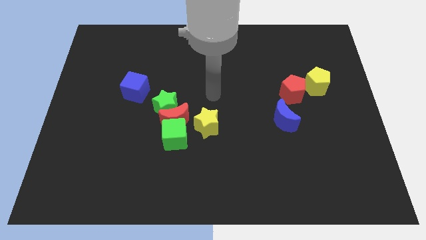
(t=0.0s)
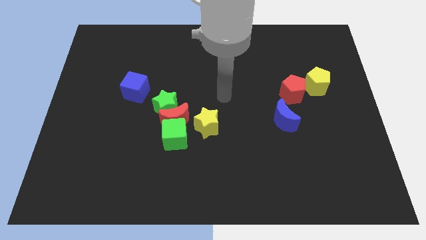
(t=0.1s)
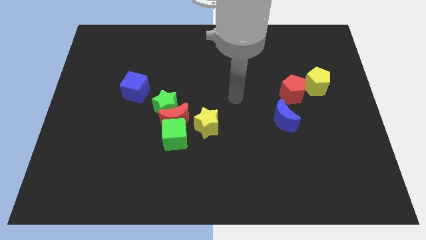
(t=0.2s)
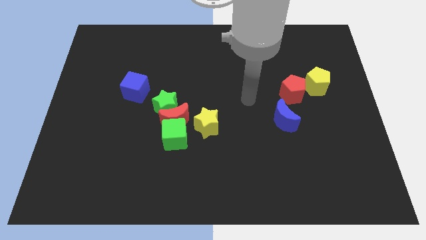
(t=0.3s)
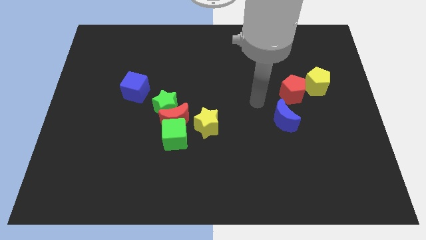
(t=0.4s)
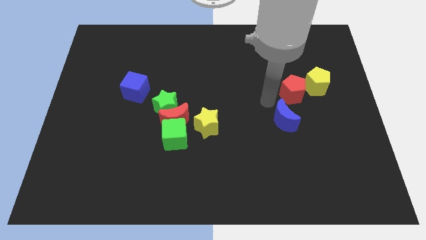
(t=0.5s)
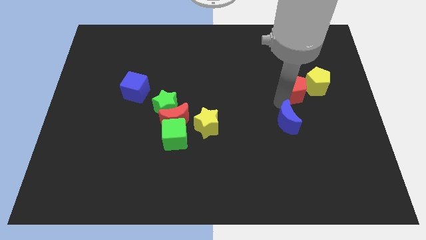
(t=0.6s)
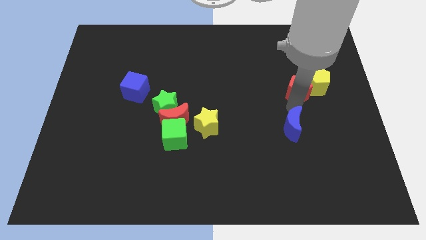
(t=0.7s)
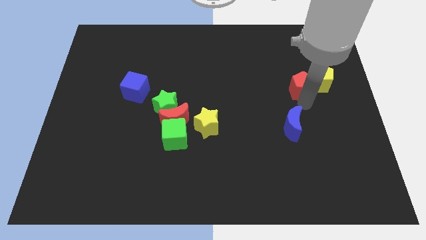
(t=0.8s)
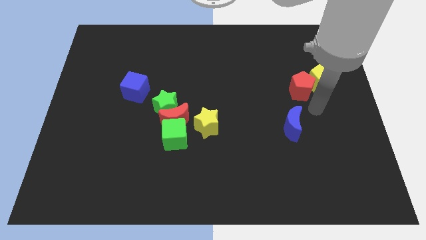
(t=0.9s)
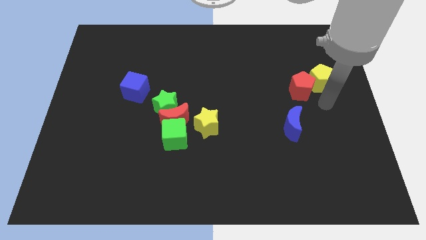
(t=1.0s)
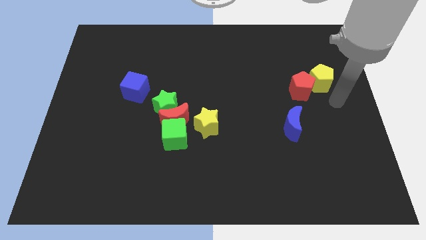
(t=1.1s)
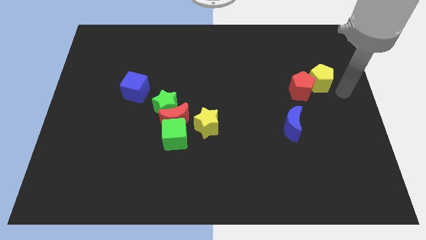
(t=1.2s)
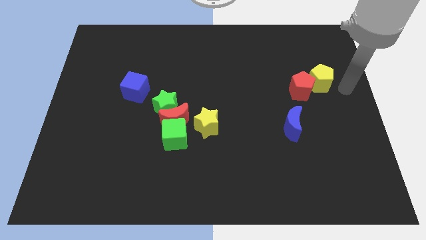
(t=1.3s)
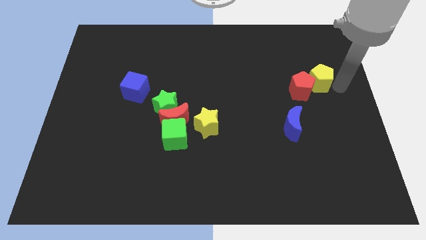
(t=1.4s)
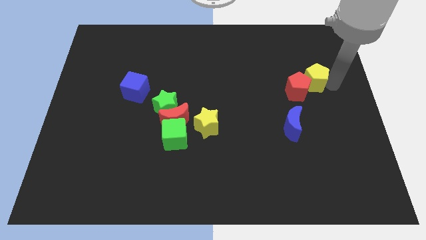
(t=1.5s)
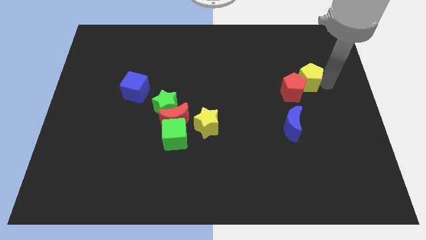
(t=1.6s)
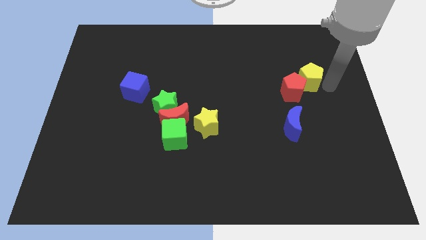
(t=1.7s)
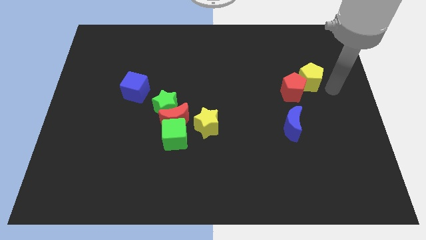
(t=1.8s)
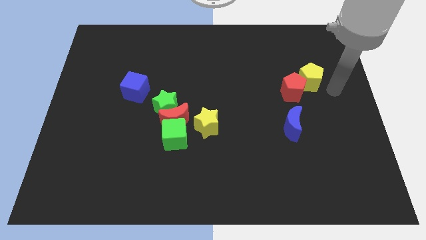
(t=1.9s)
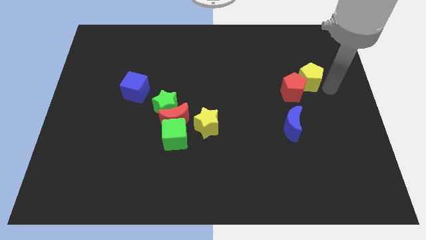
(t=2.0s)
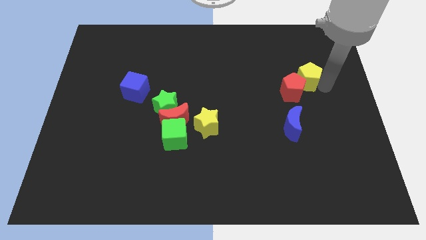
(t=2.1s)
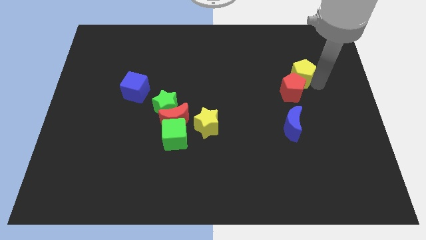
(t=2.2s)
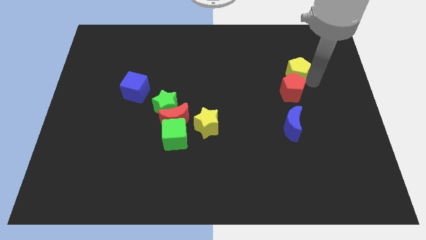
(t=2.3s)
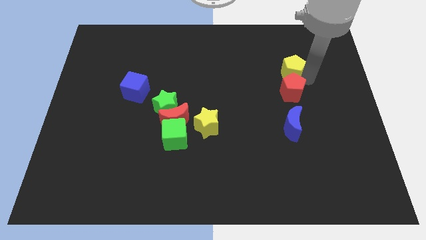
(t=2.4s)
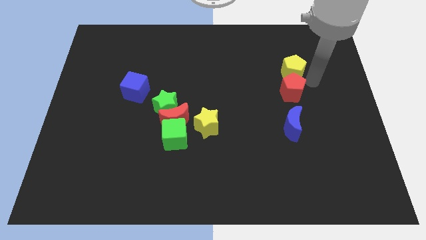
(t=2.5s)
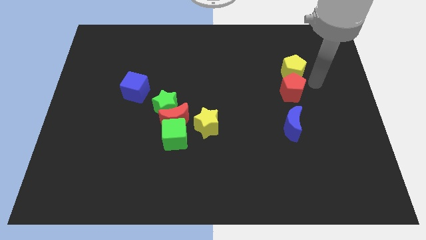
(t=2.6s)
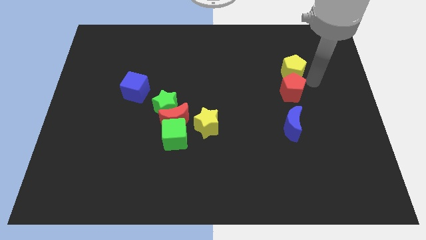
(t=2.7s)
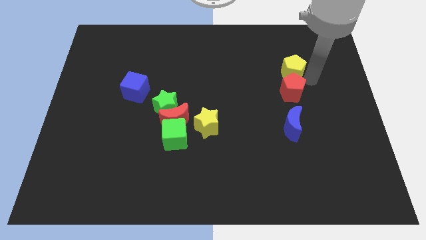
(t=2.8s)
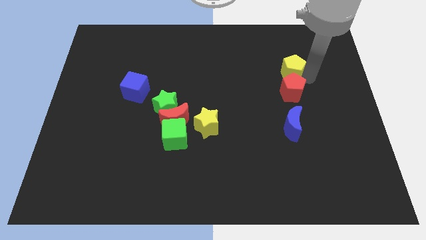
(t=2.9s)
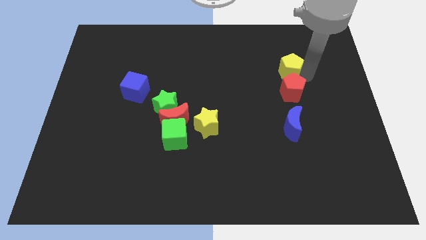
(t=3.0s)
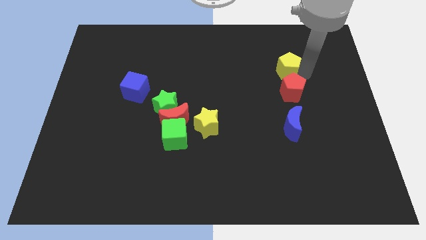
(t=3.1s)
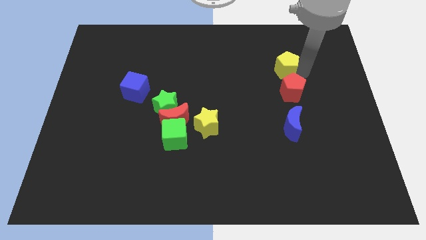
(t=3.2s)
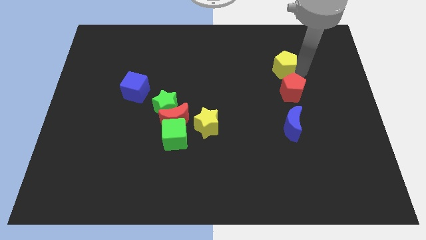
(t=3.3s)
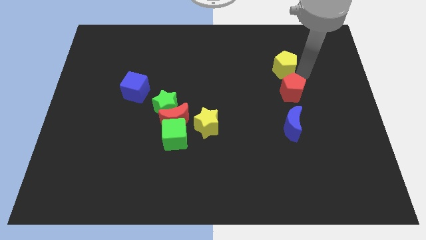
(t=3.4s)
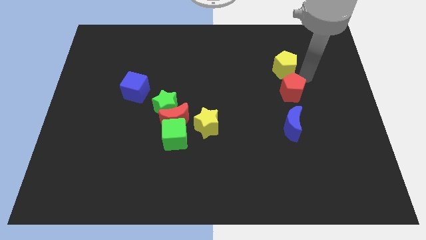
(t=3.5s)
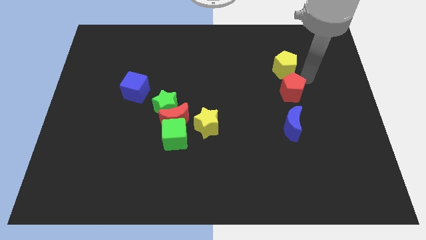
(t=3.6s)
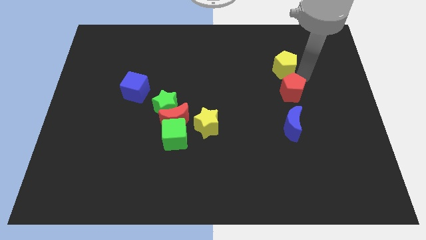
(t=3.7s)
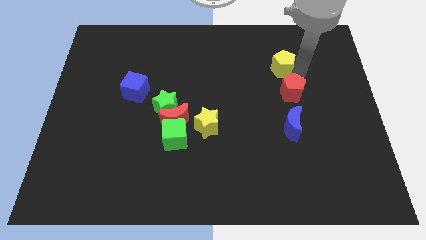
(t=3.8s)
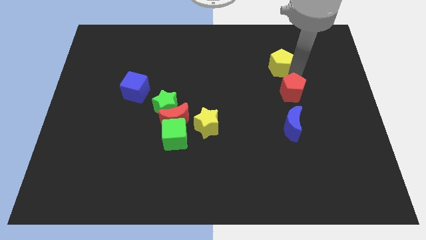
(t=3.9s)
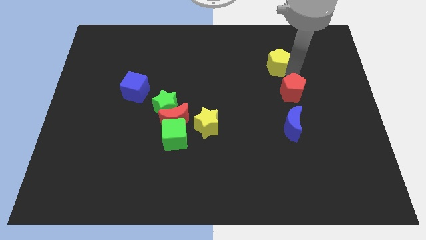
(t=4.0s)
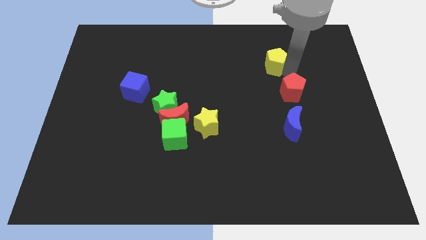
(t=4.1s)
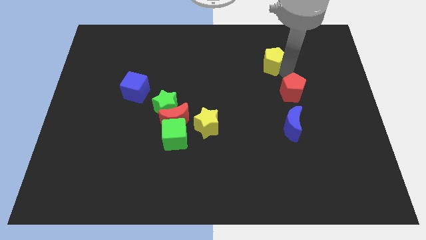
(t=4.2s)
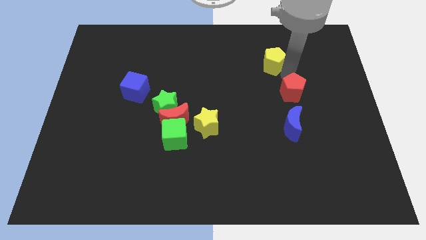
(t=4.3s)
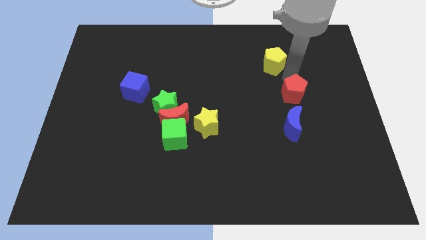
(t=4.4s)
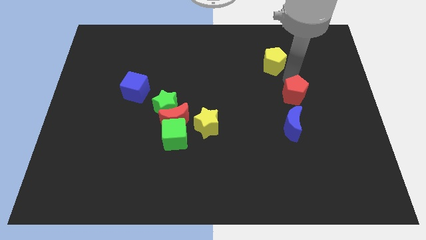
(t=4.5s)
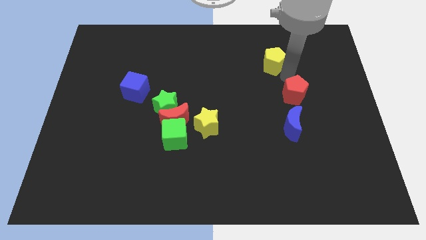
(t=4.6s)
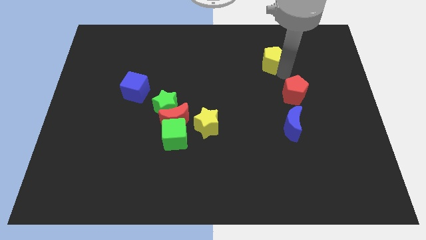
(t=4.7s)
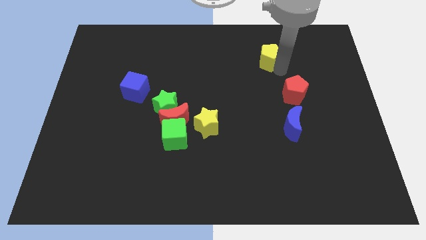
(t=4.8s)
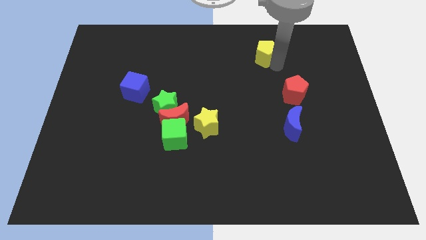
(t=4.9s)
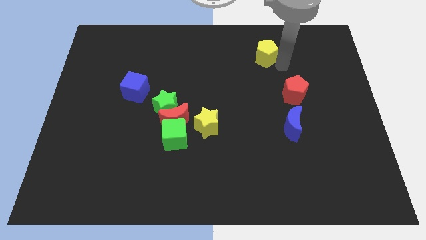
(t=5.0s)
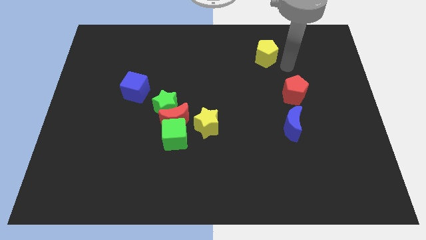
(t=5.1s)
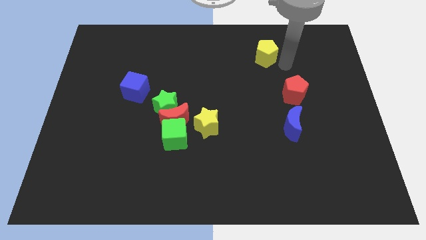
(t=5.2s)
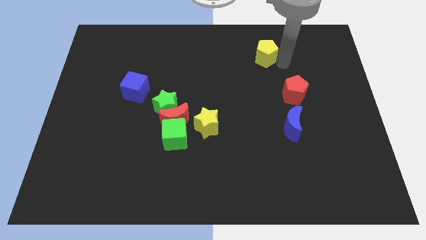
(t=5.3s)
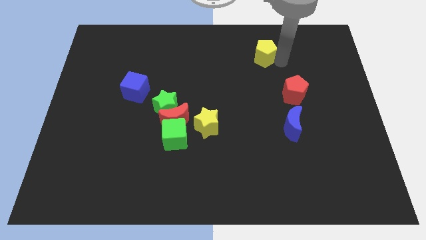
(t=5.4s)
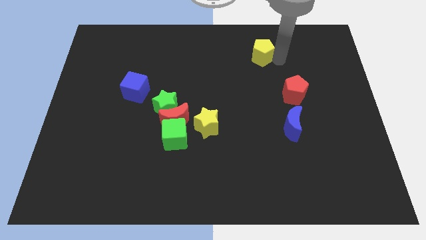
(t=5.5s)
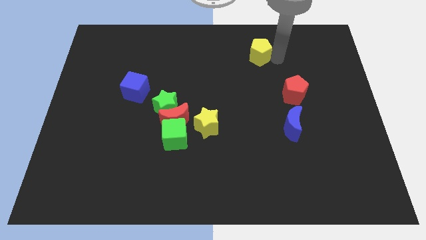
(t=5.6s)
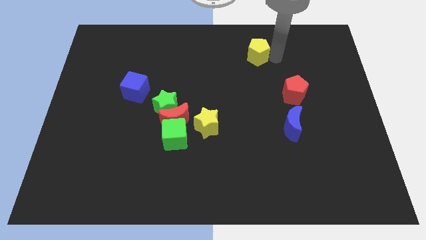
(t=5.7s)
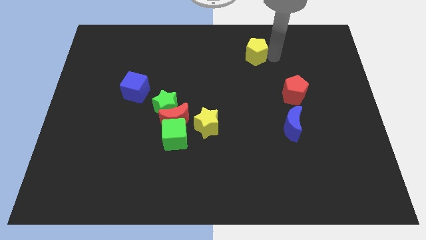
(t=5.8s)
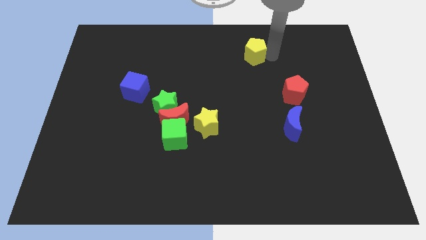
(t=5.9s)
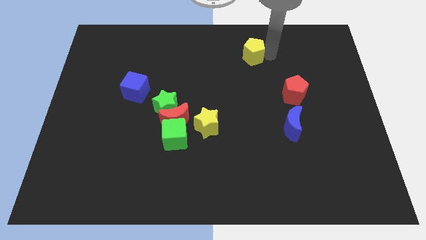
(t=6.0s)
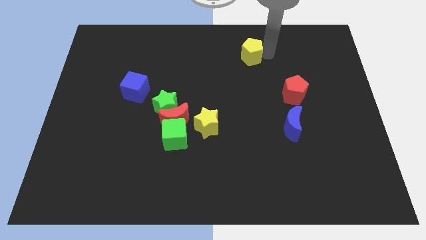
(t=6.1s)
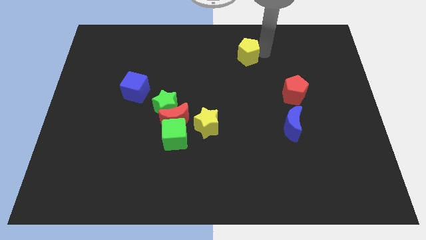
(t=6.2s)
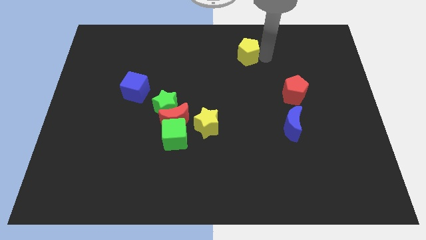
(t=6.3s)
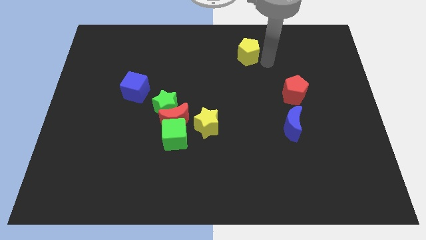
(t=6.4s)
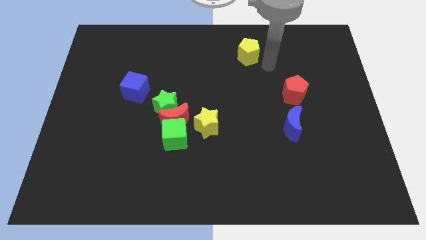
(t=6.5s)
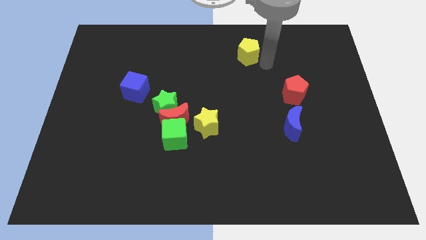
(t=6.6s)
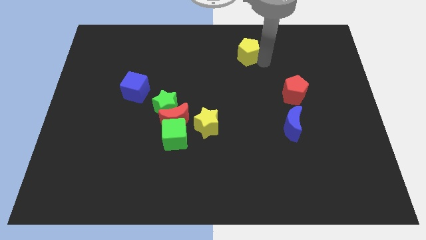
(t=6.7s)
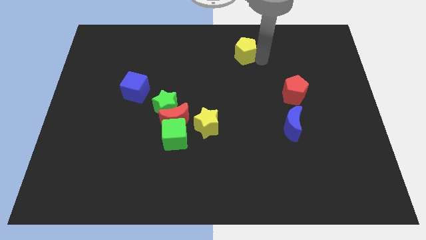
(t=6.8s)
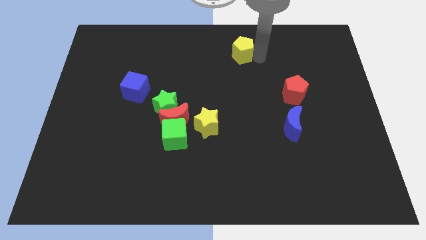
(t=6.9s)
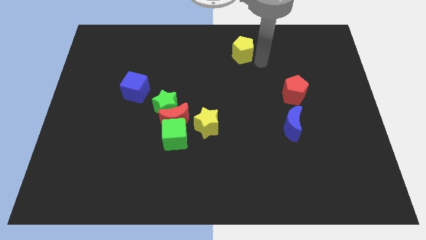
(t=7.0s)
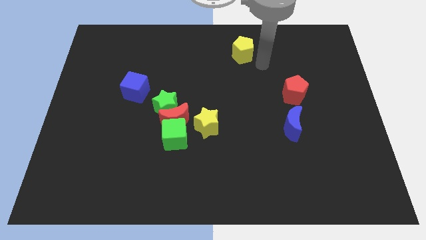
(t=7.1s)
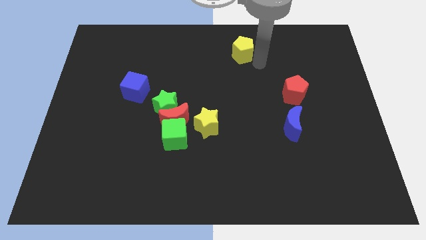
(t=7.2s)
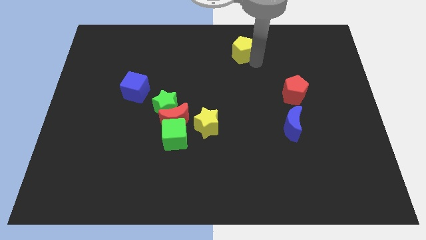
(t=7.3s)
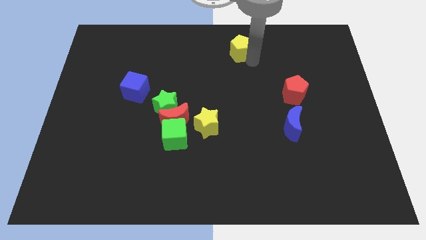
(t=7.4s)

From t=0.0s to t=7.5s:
slide the yellow pentagon to the top
